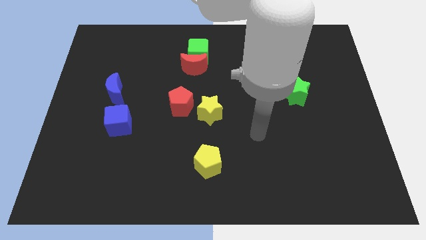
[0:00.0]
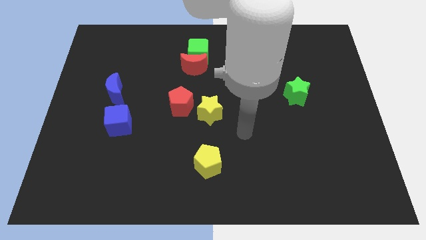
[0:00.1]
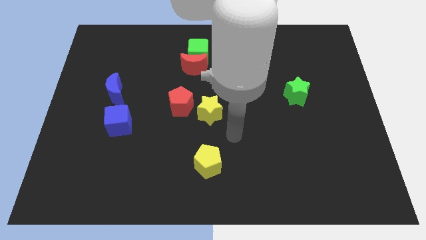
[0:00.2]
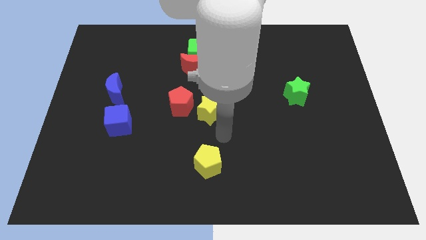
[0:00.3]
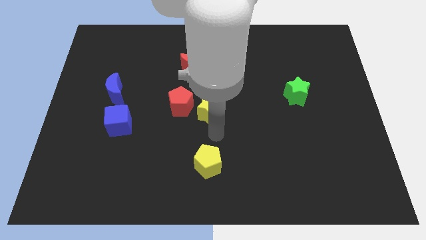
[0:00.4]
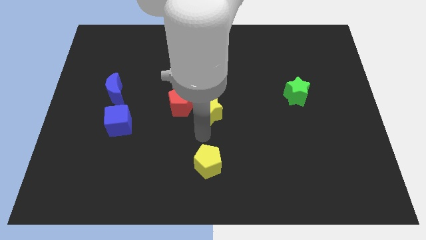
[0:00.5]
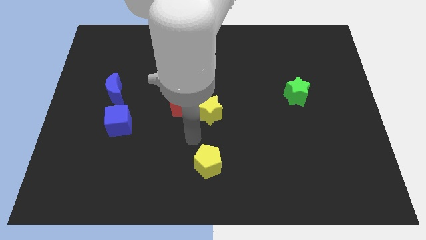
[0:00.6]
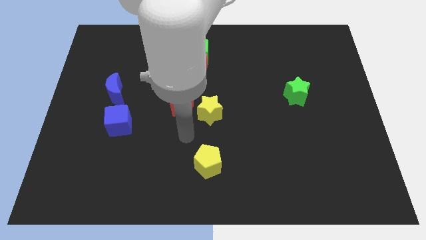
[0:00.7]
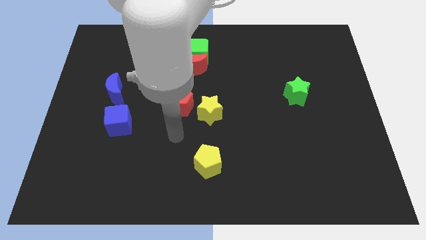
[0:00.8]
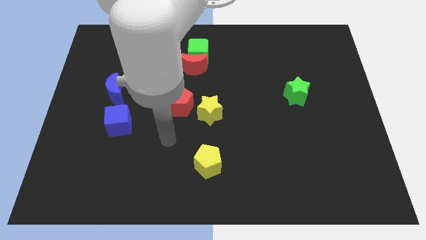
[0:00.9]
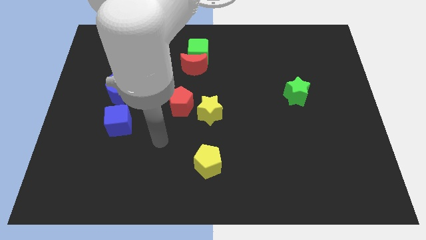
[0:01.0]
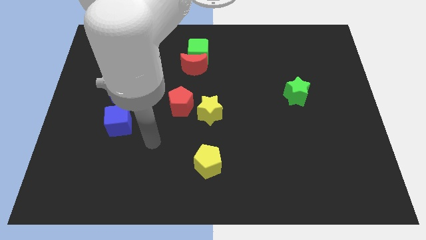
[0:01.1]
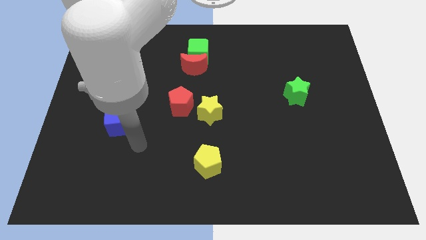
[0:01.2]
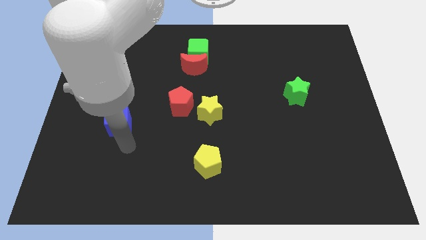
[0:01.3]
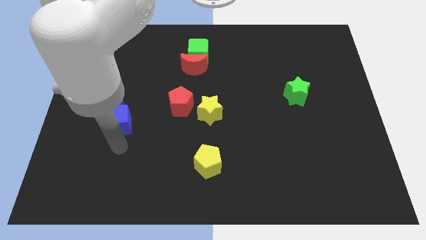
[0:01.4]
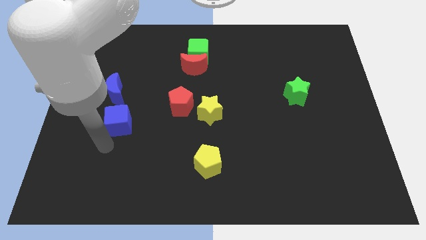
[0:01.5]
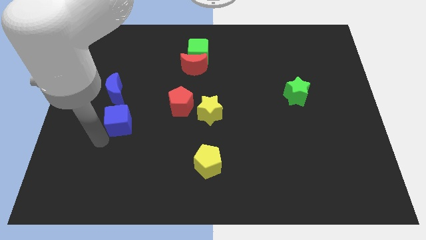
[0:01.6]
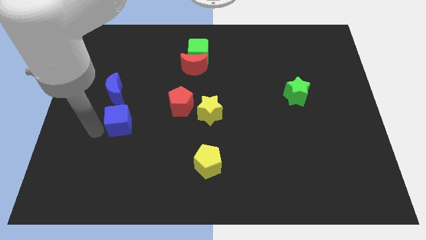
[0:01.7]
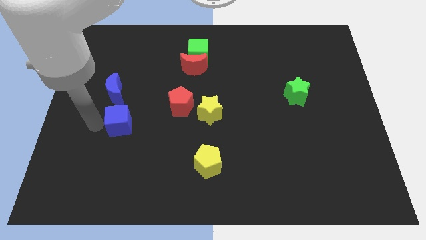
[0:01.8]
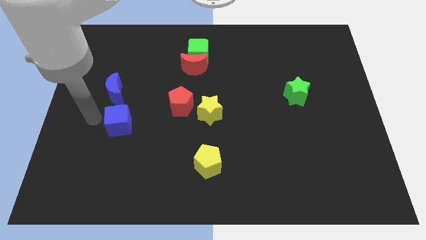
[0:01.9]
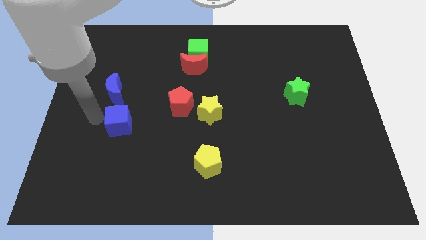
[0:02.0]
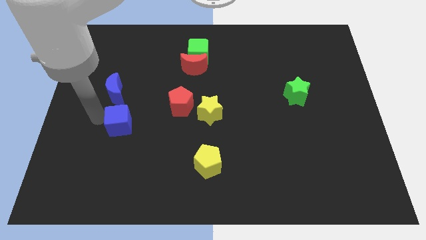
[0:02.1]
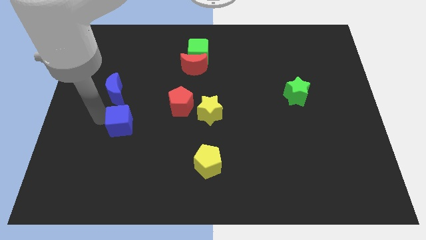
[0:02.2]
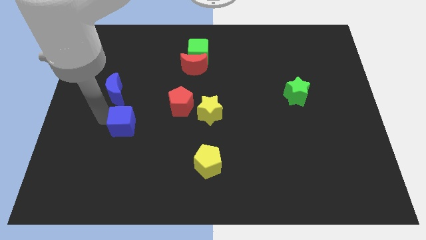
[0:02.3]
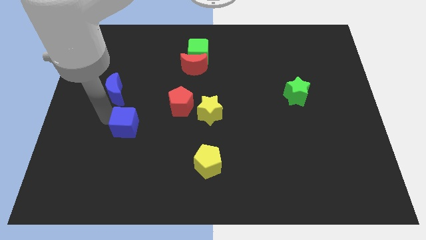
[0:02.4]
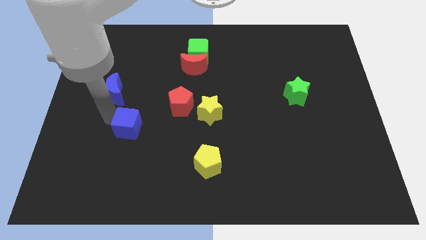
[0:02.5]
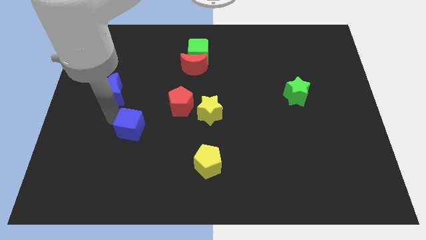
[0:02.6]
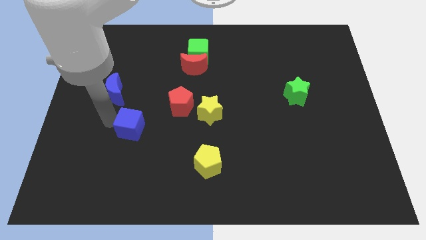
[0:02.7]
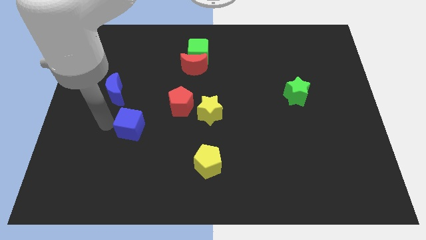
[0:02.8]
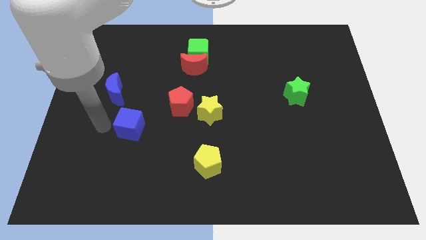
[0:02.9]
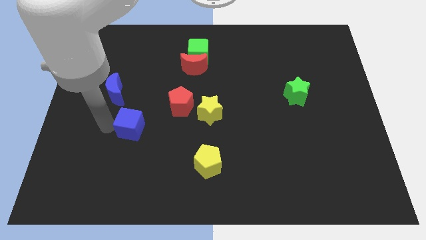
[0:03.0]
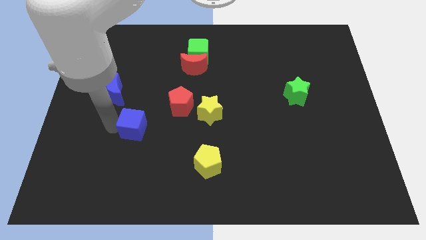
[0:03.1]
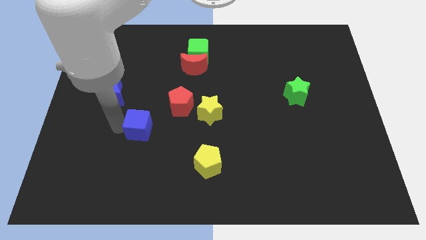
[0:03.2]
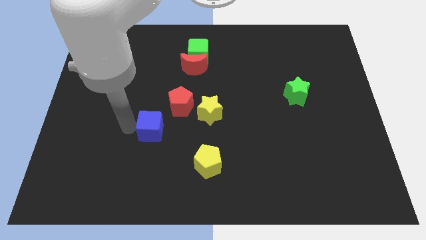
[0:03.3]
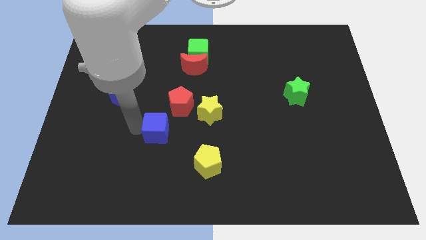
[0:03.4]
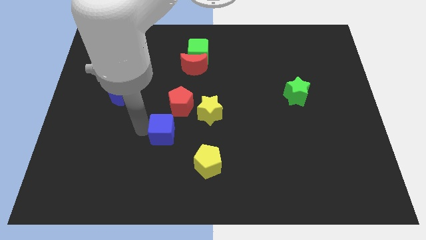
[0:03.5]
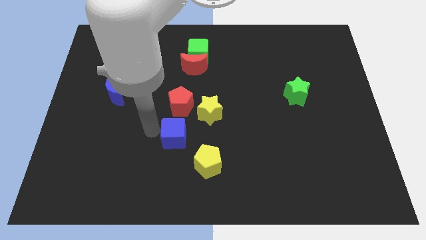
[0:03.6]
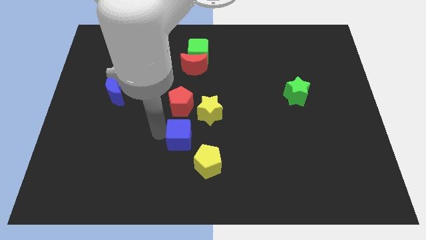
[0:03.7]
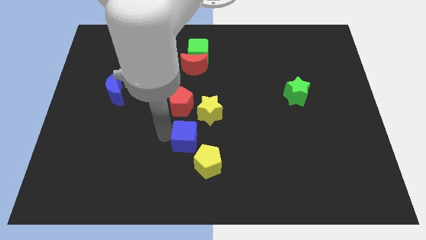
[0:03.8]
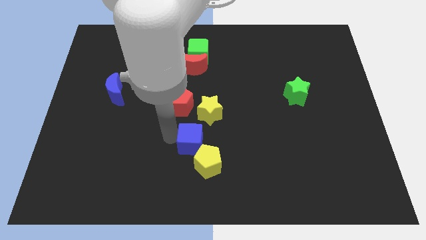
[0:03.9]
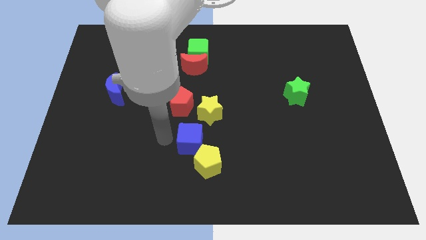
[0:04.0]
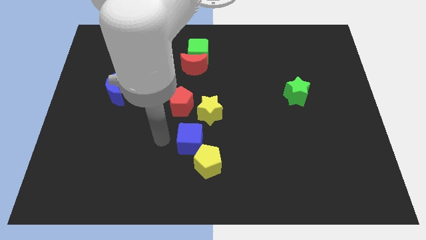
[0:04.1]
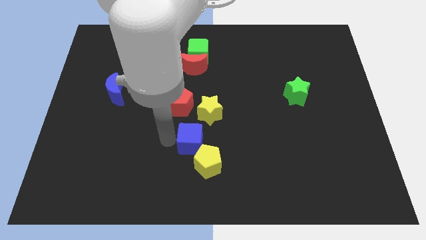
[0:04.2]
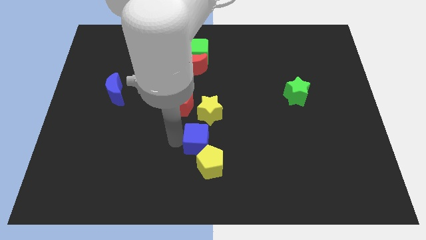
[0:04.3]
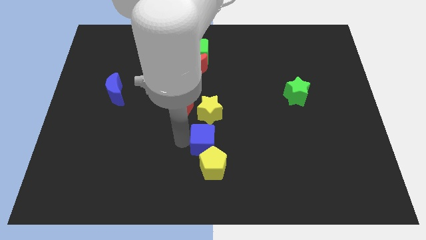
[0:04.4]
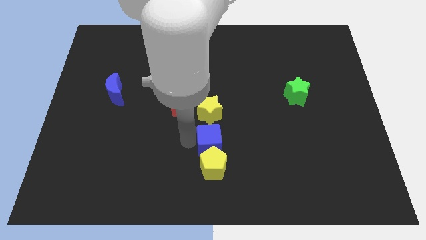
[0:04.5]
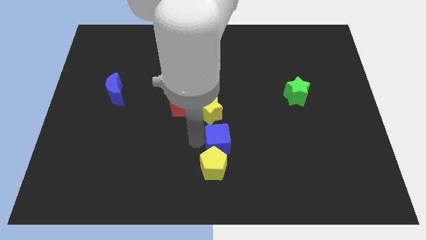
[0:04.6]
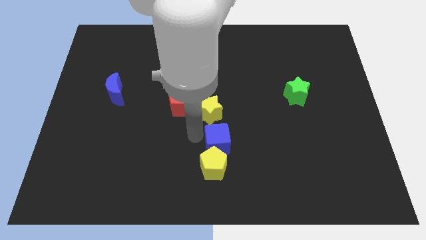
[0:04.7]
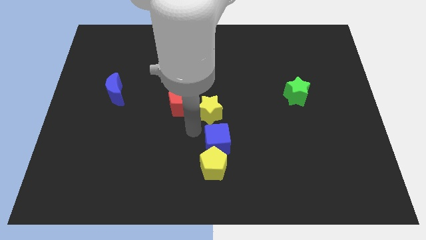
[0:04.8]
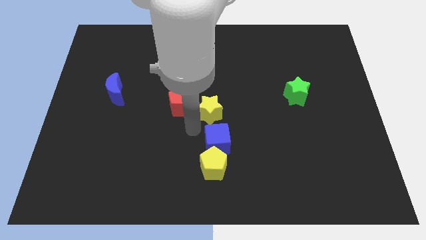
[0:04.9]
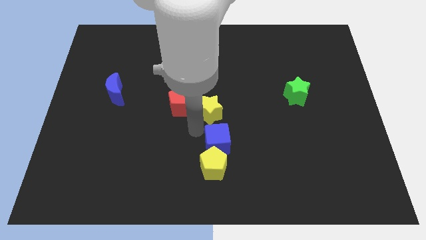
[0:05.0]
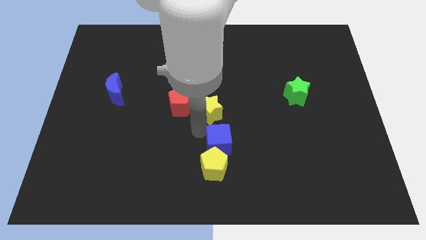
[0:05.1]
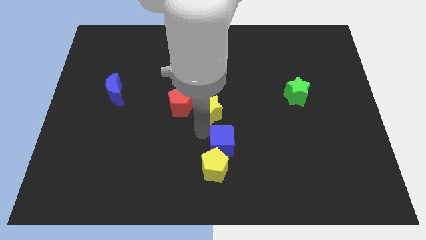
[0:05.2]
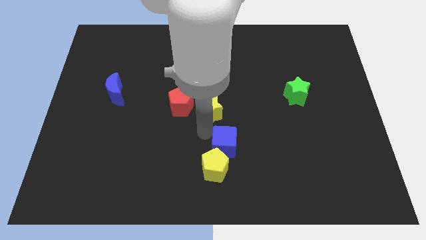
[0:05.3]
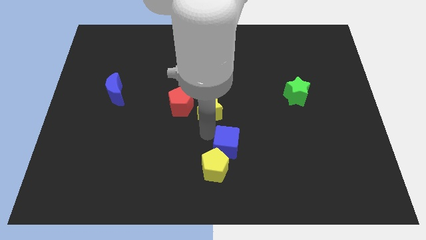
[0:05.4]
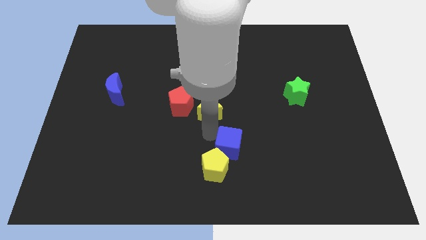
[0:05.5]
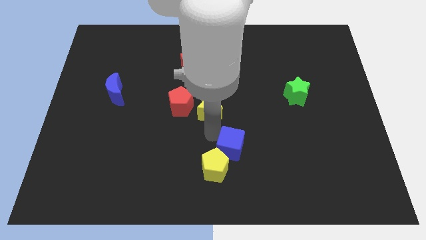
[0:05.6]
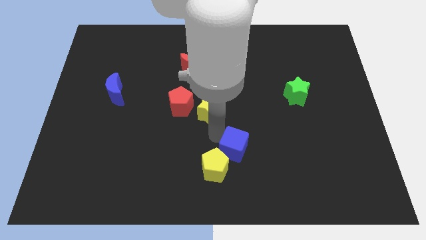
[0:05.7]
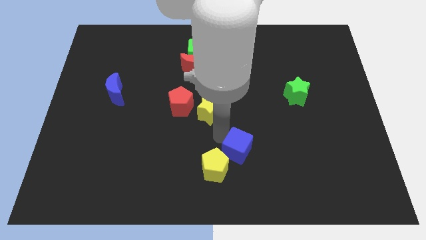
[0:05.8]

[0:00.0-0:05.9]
put the blue cube right of the yellow pentagon

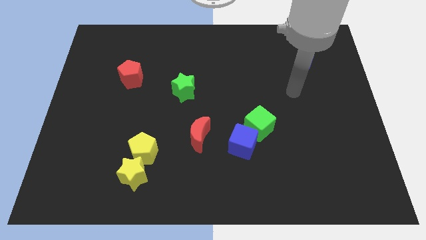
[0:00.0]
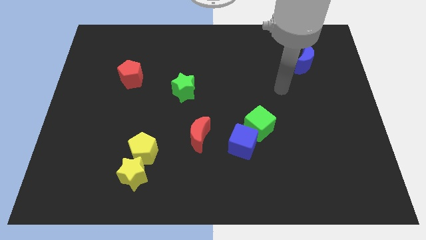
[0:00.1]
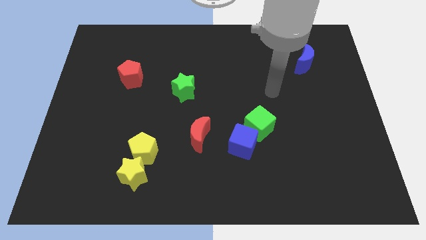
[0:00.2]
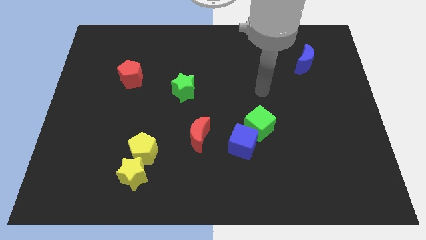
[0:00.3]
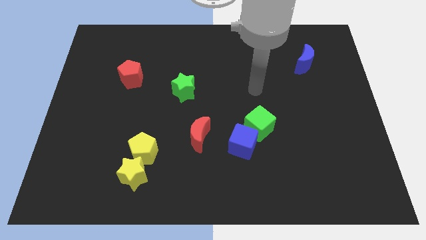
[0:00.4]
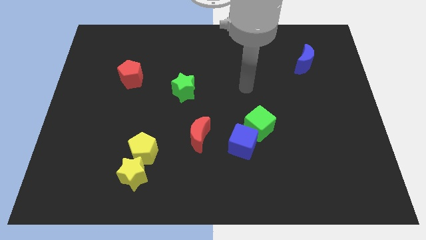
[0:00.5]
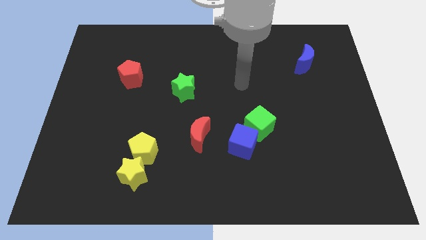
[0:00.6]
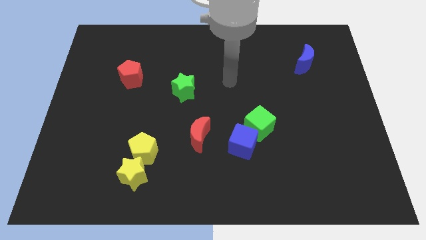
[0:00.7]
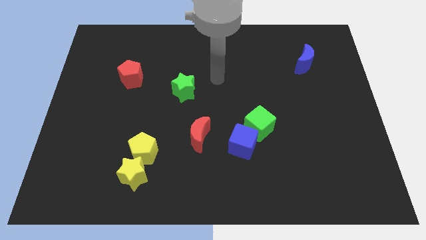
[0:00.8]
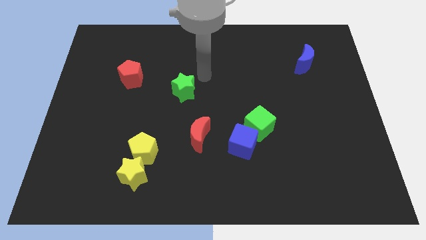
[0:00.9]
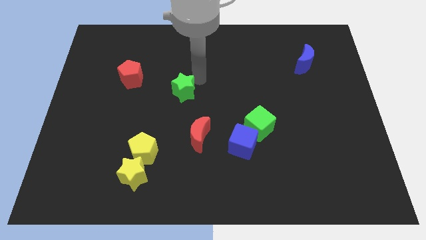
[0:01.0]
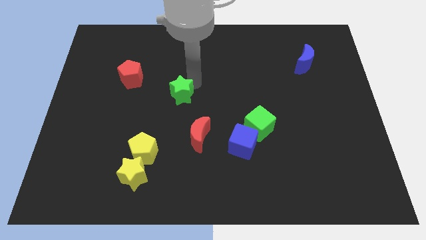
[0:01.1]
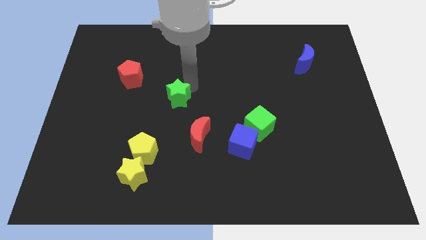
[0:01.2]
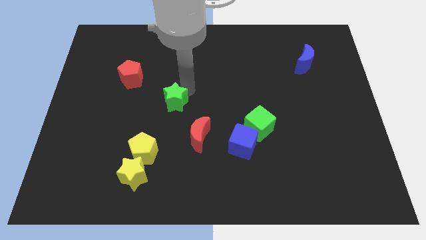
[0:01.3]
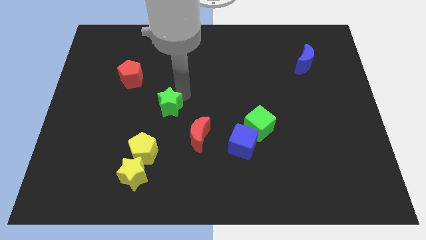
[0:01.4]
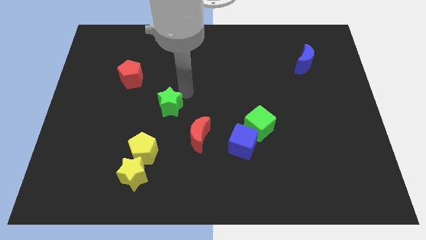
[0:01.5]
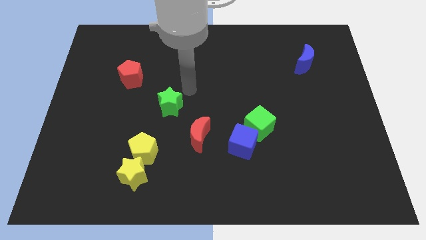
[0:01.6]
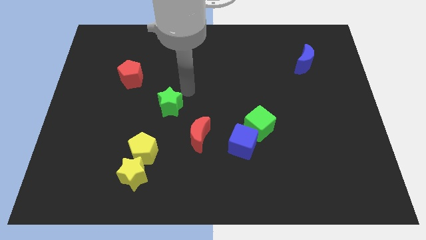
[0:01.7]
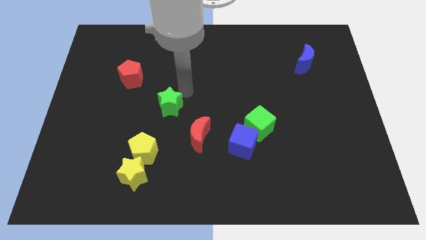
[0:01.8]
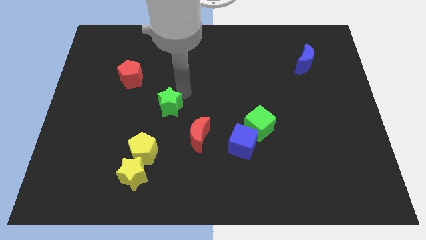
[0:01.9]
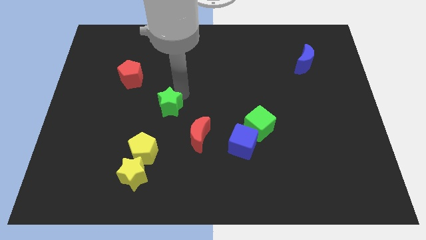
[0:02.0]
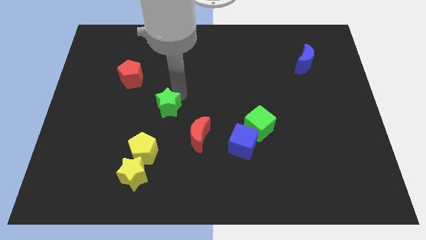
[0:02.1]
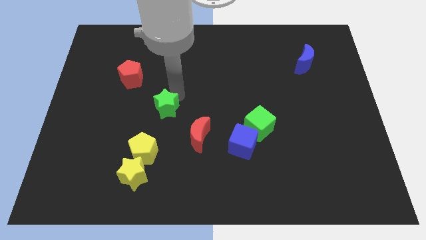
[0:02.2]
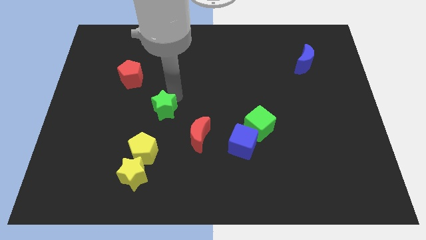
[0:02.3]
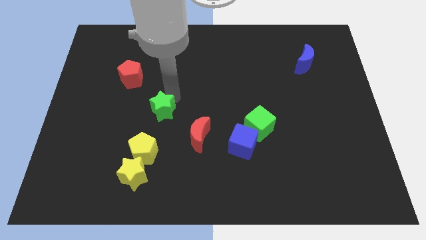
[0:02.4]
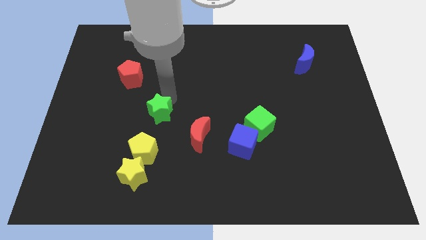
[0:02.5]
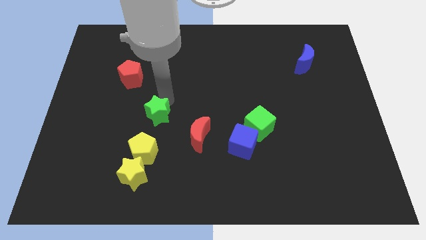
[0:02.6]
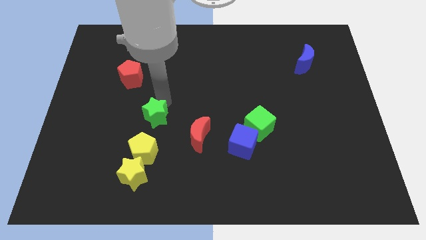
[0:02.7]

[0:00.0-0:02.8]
move the green star to the top side of the yellow star
